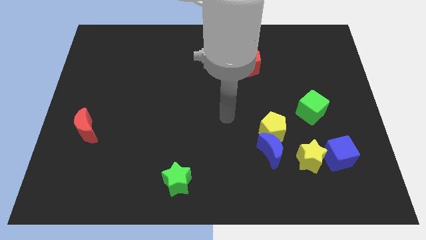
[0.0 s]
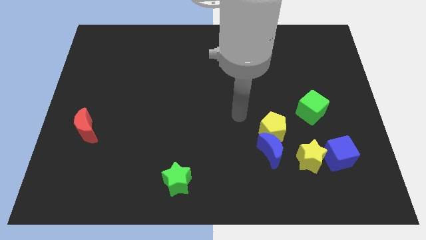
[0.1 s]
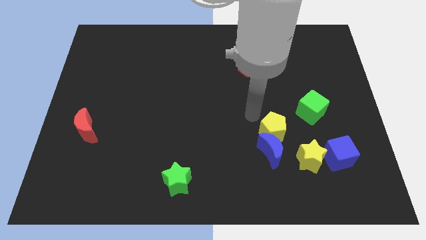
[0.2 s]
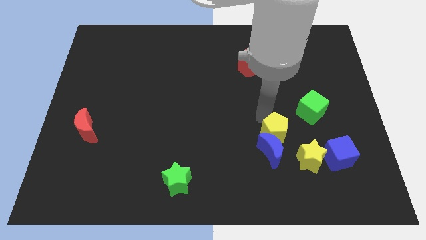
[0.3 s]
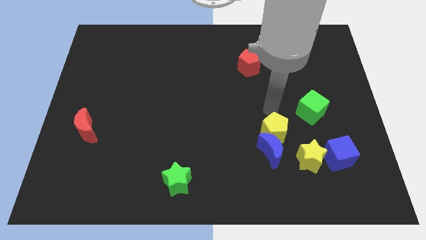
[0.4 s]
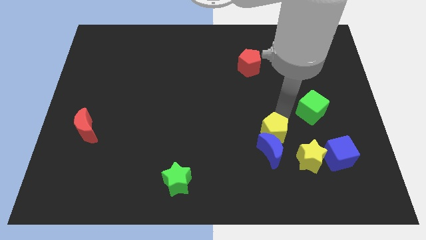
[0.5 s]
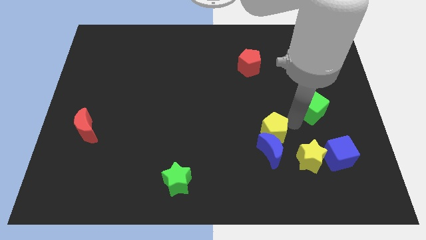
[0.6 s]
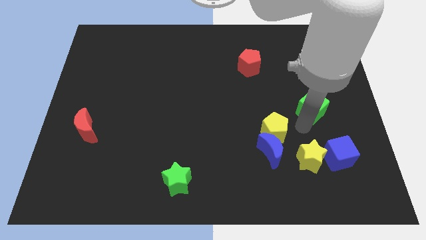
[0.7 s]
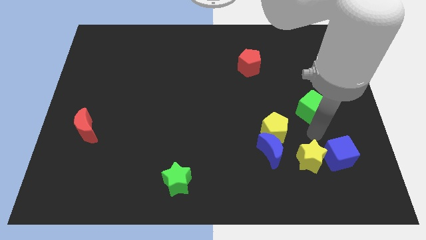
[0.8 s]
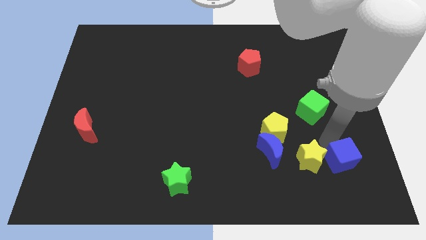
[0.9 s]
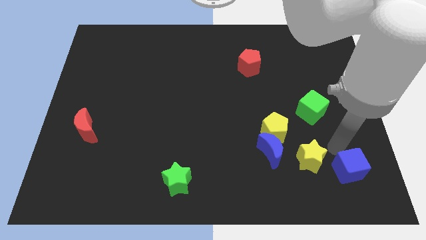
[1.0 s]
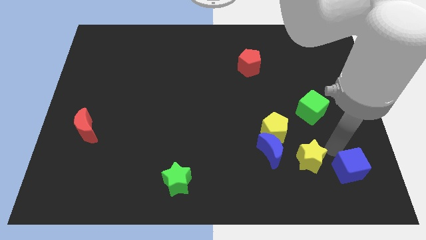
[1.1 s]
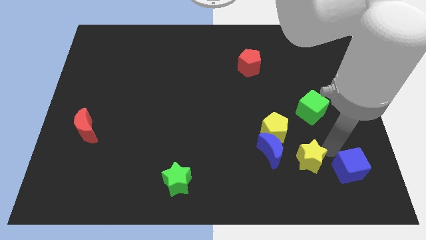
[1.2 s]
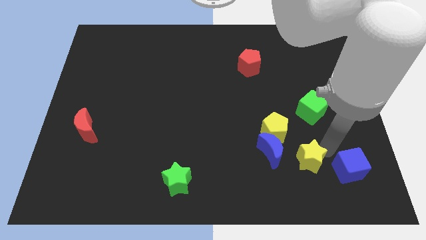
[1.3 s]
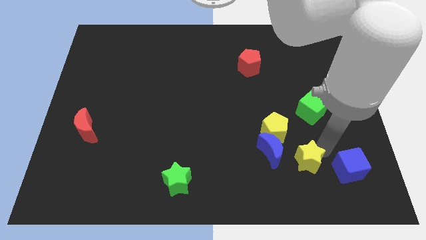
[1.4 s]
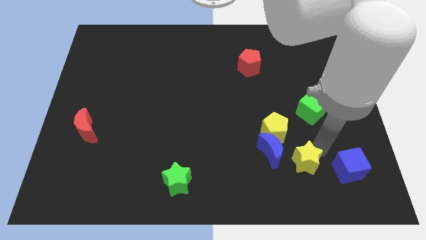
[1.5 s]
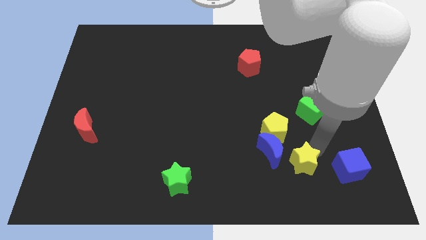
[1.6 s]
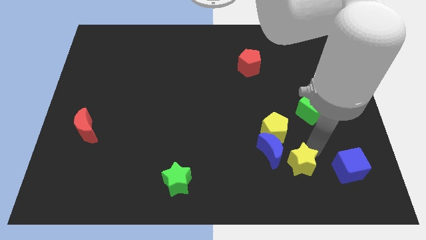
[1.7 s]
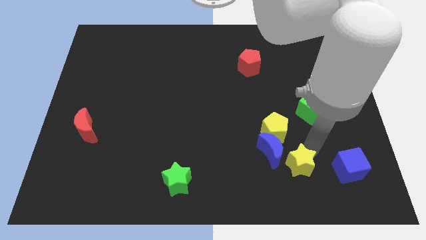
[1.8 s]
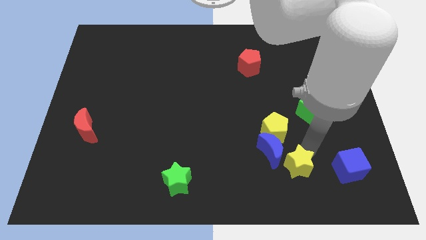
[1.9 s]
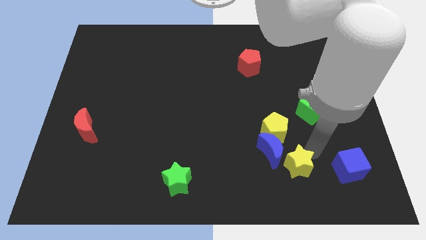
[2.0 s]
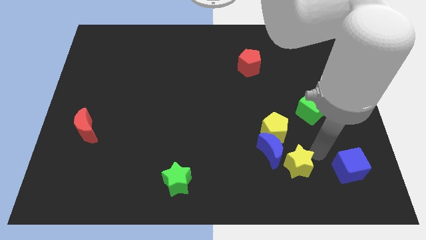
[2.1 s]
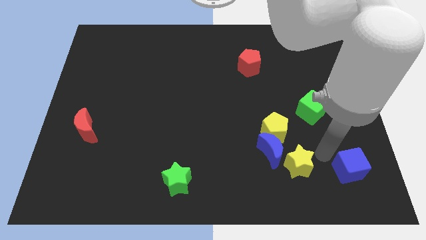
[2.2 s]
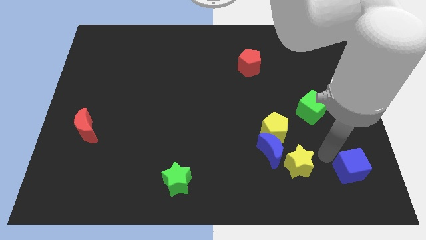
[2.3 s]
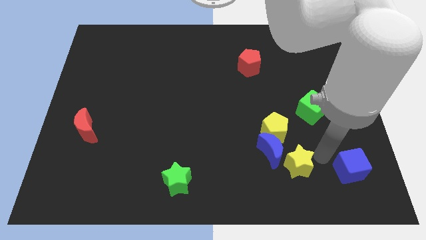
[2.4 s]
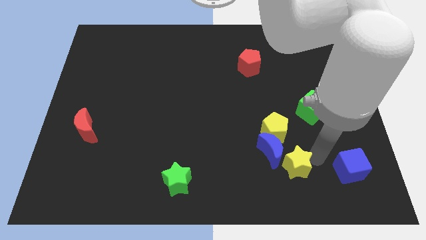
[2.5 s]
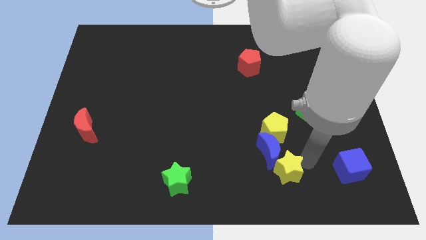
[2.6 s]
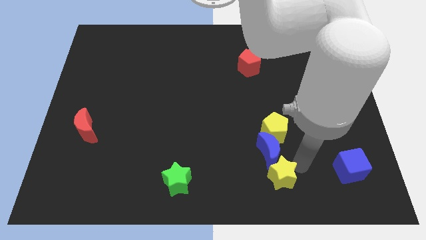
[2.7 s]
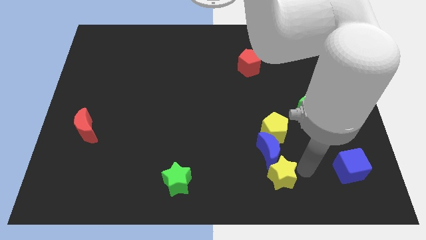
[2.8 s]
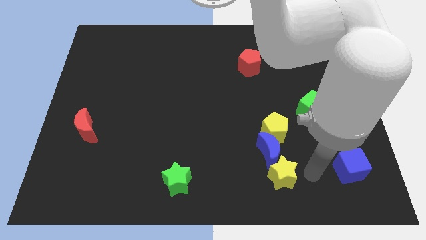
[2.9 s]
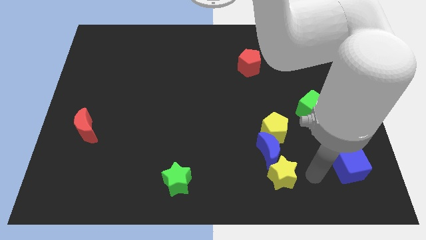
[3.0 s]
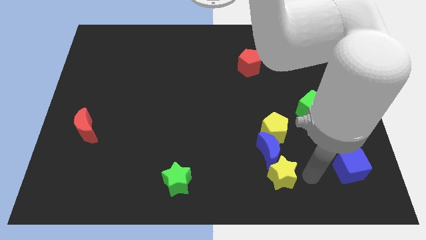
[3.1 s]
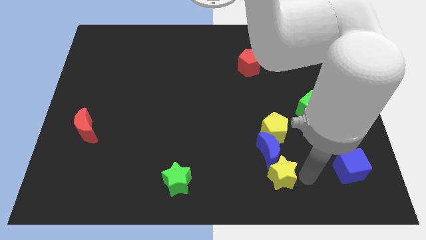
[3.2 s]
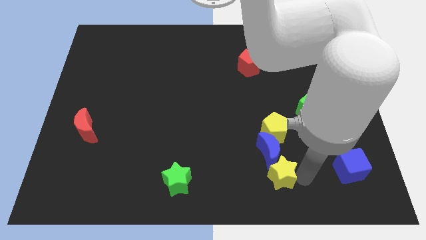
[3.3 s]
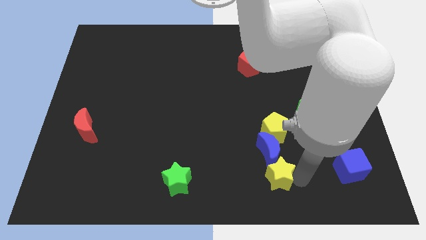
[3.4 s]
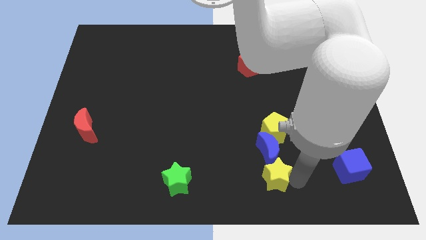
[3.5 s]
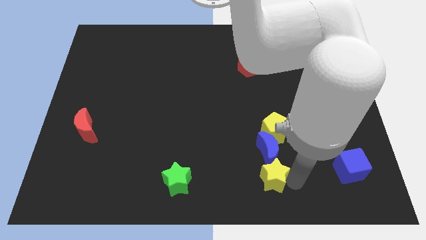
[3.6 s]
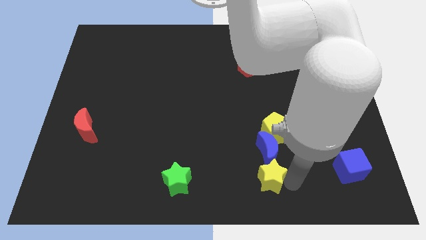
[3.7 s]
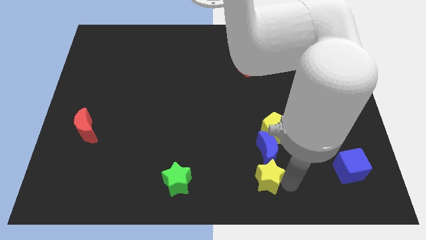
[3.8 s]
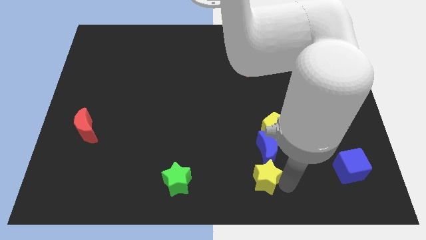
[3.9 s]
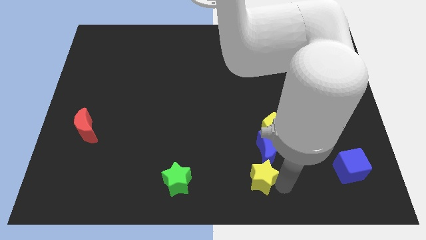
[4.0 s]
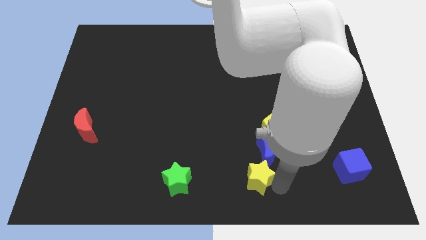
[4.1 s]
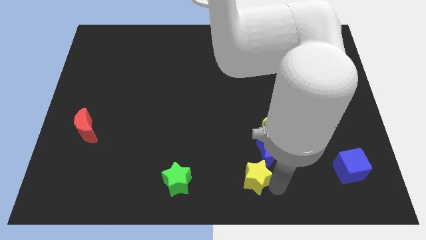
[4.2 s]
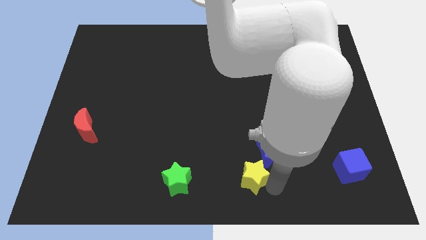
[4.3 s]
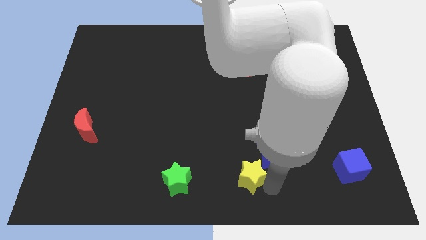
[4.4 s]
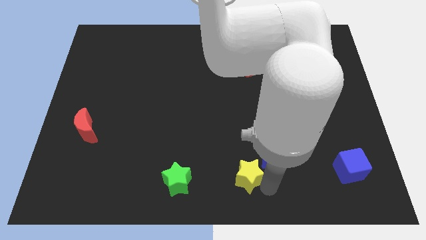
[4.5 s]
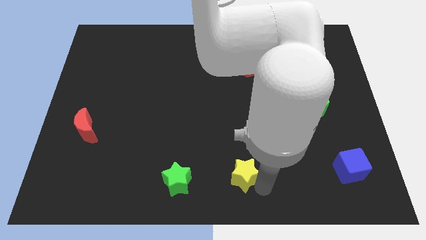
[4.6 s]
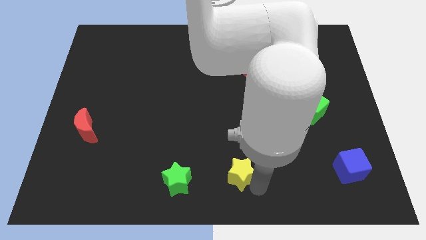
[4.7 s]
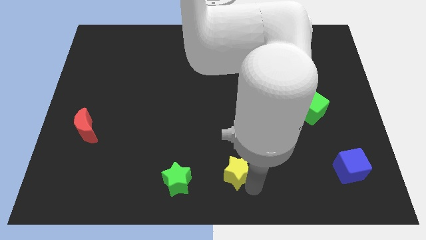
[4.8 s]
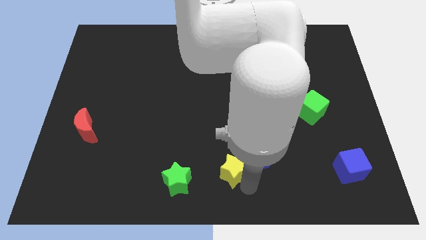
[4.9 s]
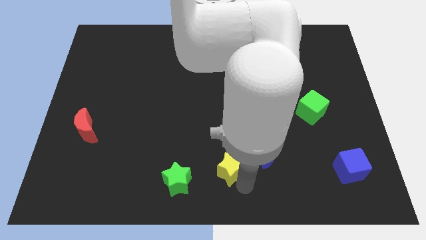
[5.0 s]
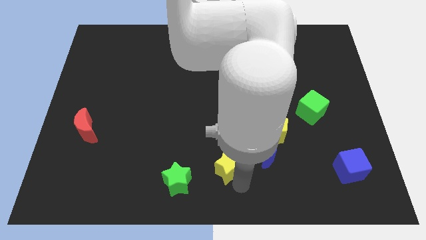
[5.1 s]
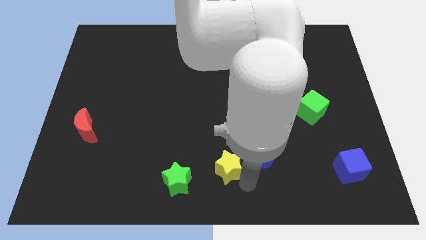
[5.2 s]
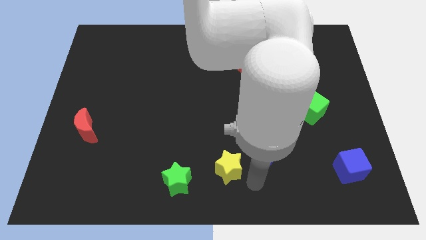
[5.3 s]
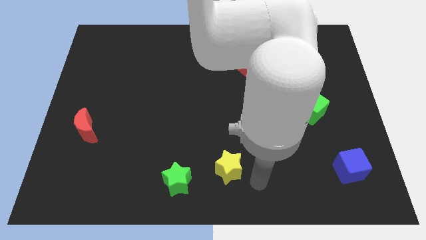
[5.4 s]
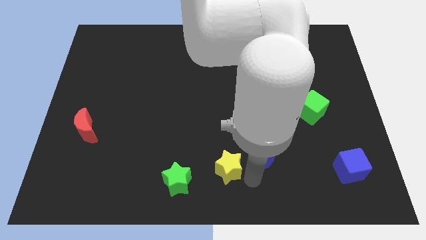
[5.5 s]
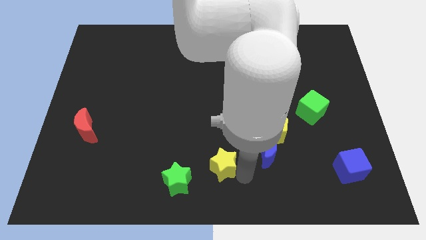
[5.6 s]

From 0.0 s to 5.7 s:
slide the yellow star diagonally up and to the right of the green star

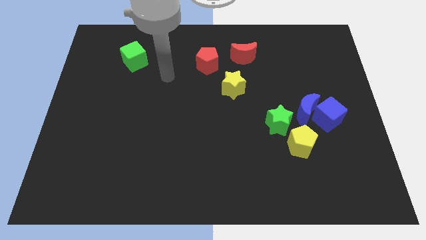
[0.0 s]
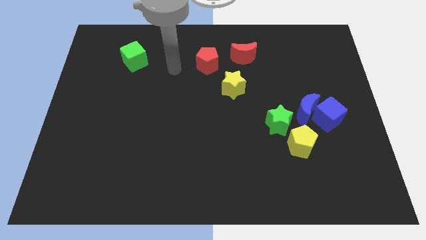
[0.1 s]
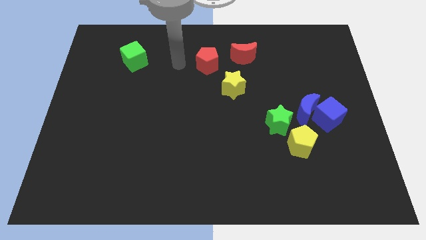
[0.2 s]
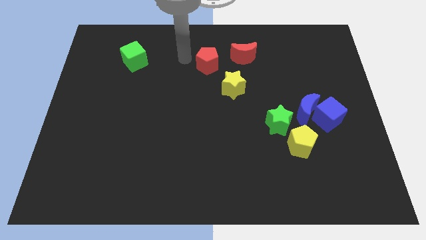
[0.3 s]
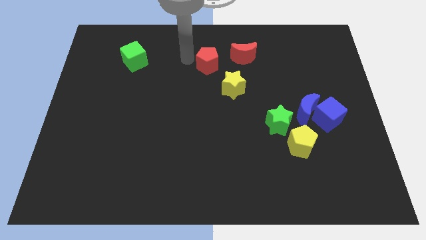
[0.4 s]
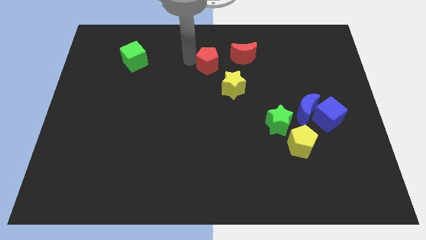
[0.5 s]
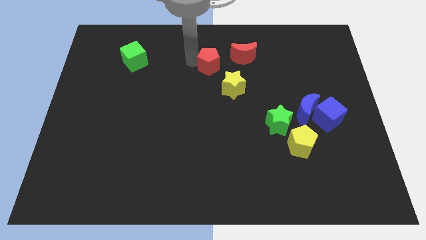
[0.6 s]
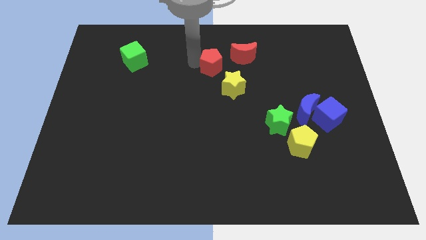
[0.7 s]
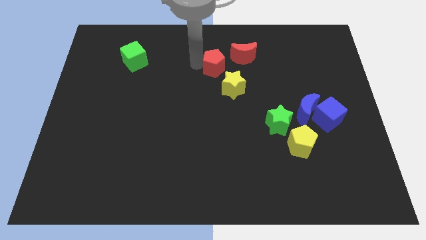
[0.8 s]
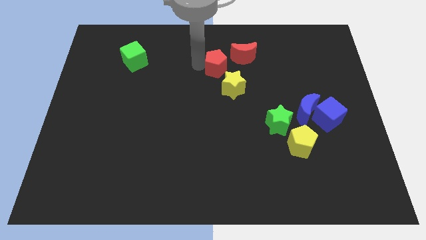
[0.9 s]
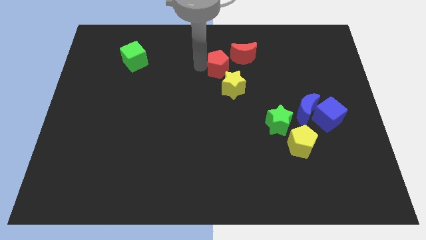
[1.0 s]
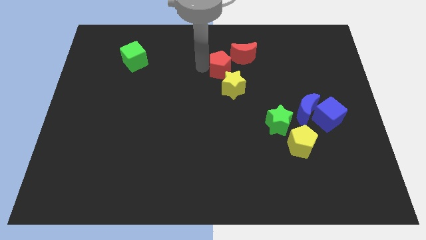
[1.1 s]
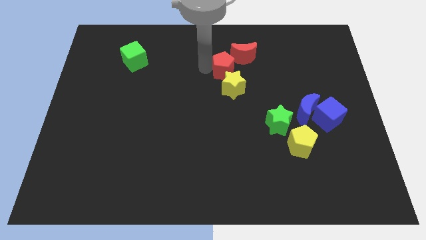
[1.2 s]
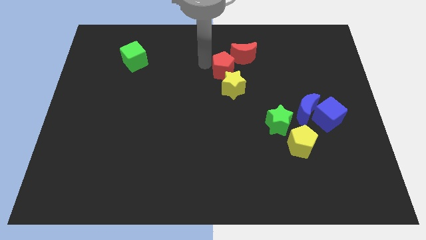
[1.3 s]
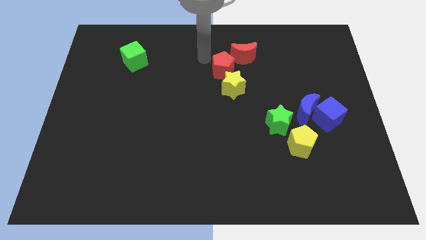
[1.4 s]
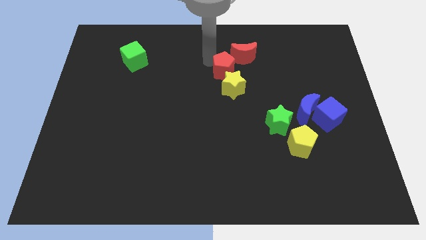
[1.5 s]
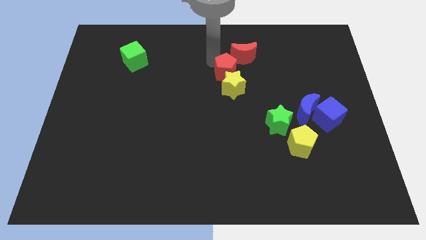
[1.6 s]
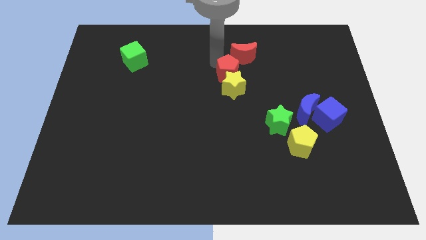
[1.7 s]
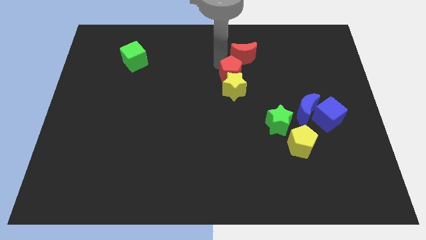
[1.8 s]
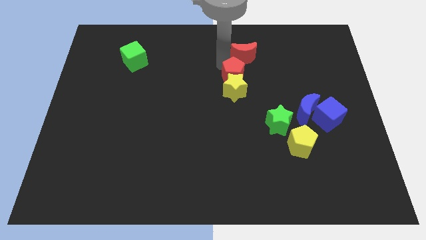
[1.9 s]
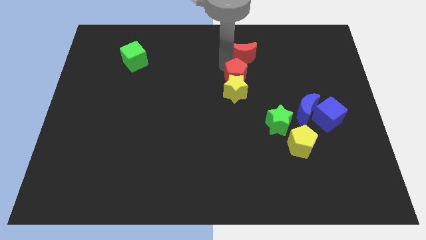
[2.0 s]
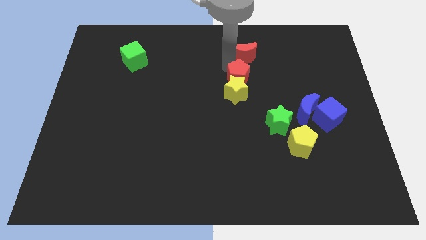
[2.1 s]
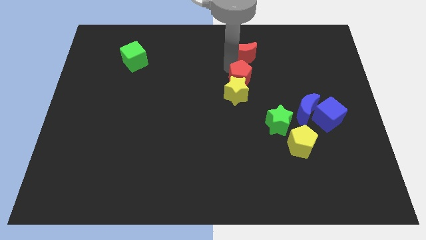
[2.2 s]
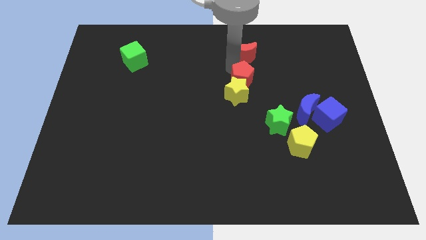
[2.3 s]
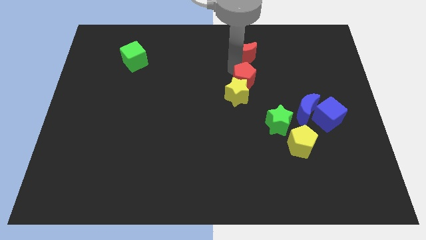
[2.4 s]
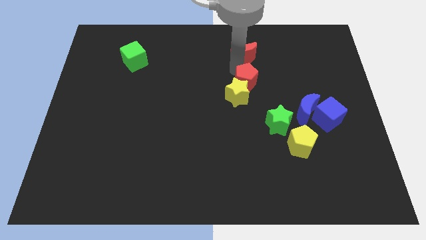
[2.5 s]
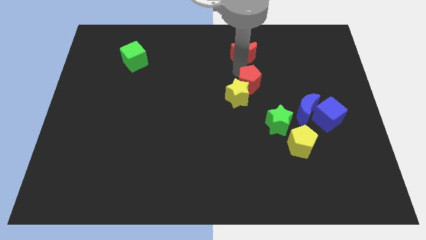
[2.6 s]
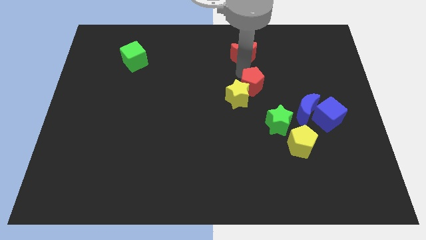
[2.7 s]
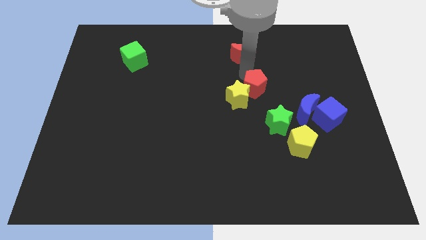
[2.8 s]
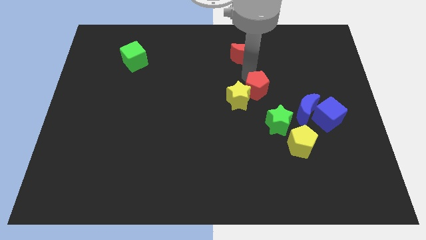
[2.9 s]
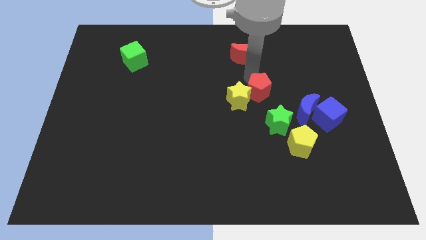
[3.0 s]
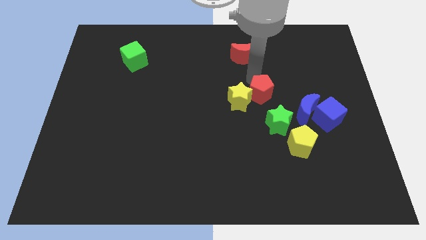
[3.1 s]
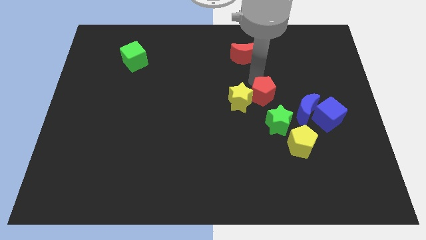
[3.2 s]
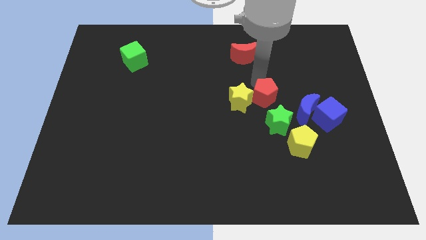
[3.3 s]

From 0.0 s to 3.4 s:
move the red pentagon left of the blue moon
